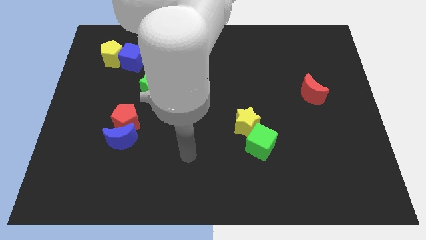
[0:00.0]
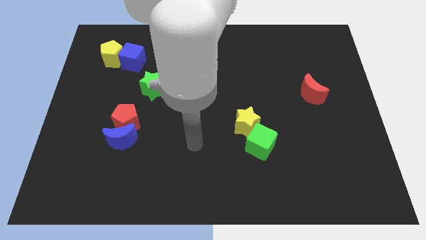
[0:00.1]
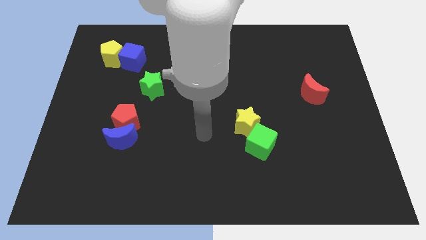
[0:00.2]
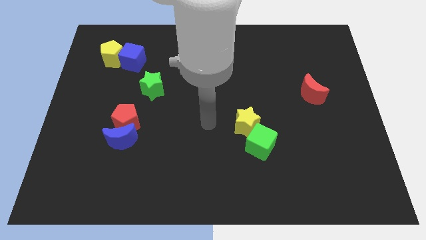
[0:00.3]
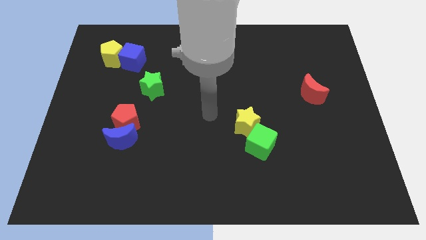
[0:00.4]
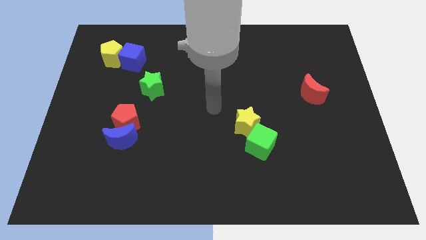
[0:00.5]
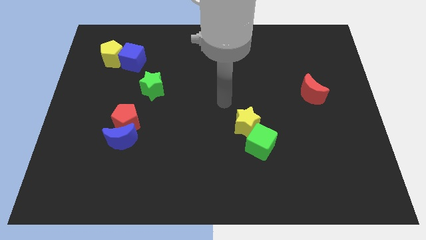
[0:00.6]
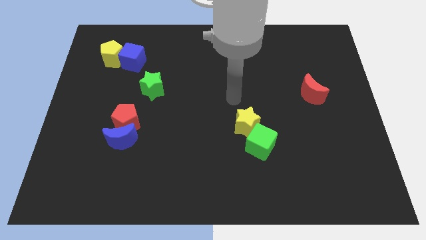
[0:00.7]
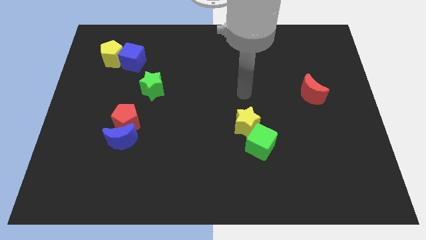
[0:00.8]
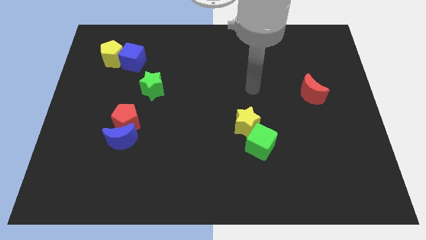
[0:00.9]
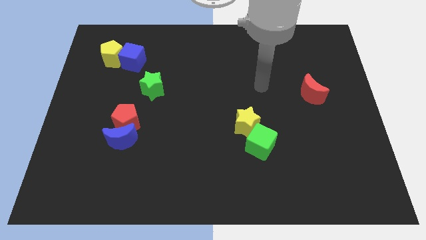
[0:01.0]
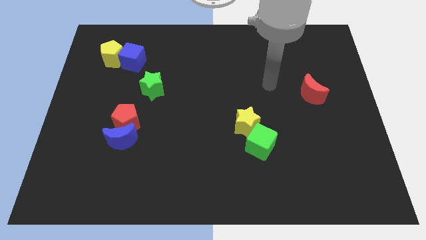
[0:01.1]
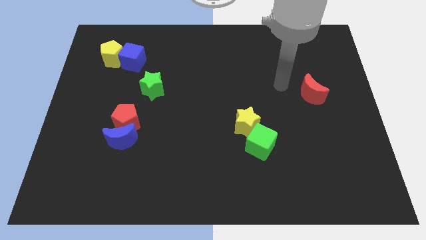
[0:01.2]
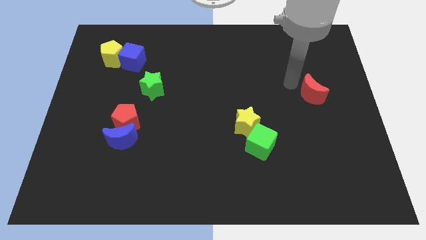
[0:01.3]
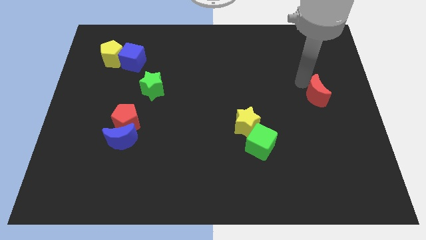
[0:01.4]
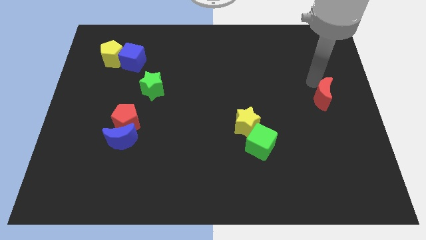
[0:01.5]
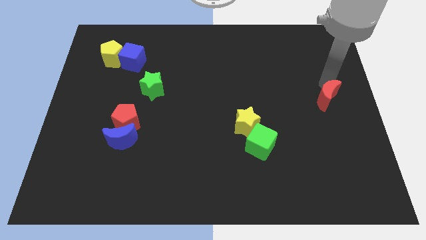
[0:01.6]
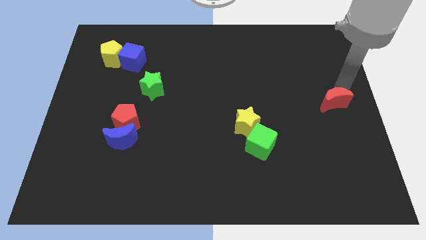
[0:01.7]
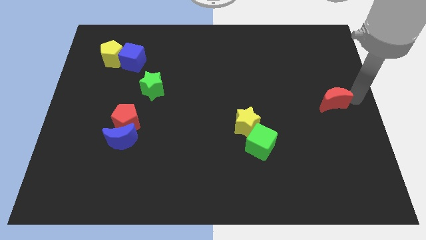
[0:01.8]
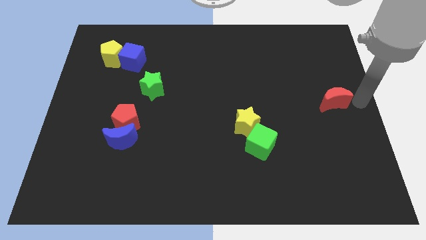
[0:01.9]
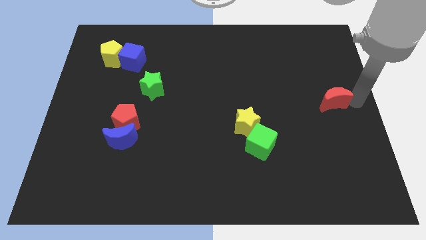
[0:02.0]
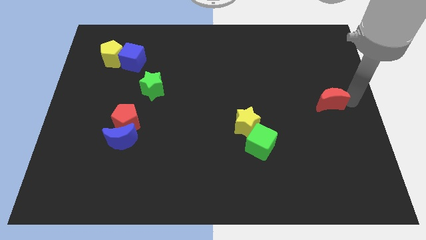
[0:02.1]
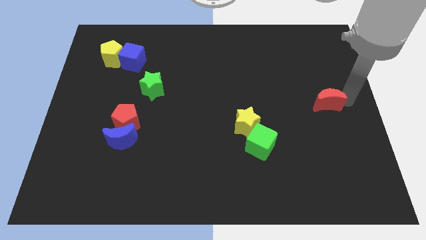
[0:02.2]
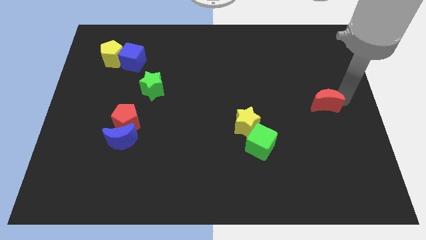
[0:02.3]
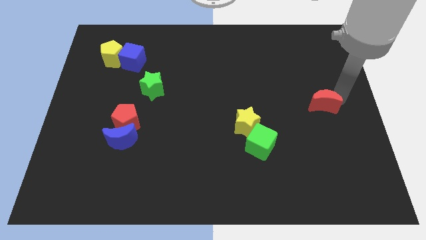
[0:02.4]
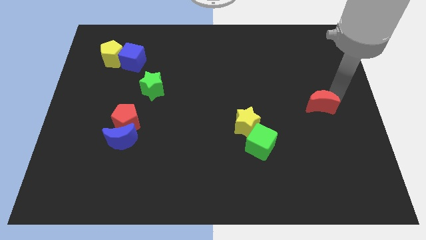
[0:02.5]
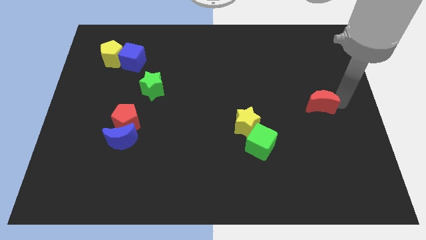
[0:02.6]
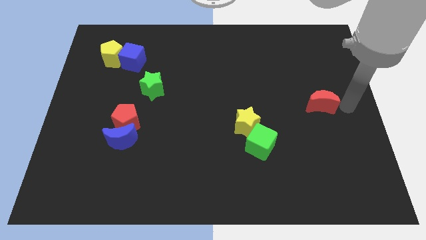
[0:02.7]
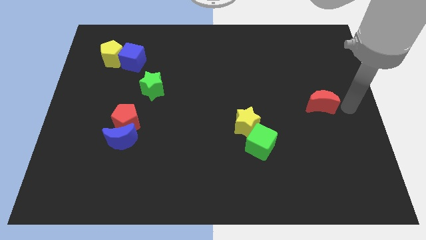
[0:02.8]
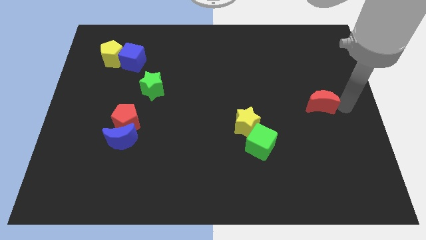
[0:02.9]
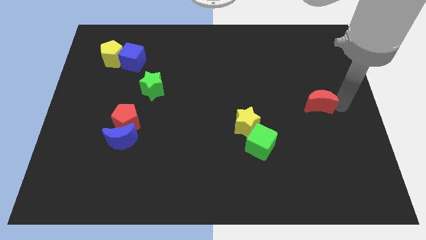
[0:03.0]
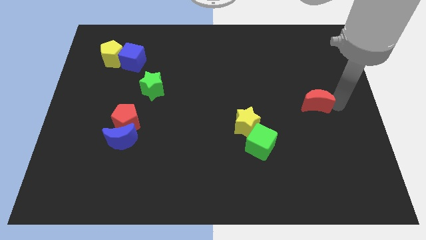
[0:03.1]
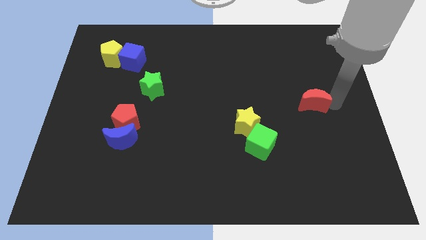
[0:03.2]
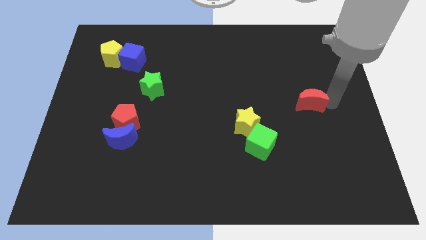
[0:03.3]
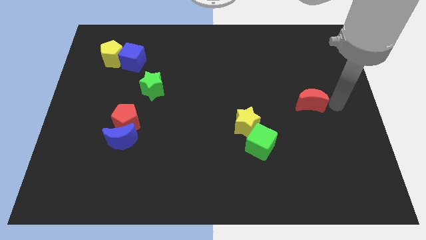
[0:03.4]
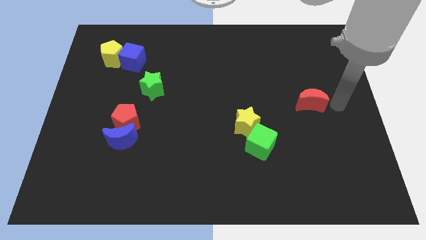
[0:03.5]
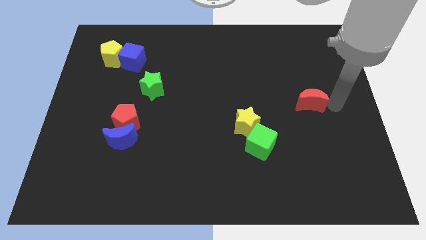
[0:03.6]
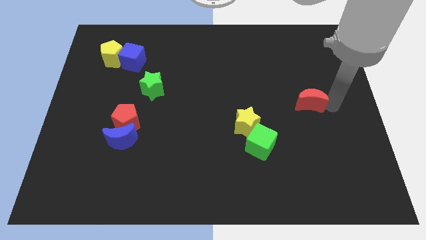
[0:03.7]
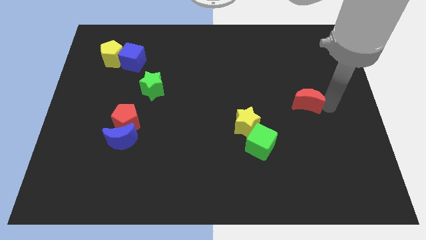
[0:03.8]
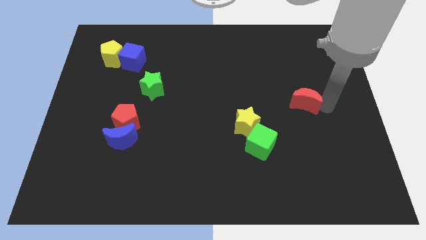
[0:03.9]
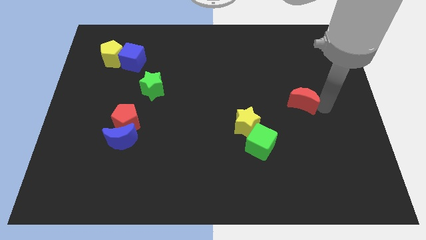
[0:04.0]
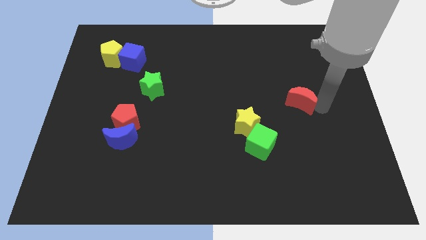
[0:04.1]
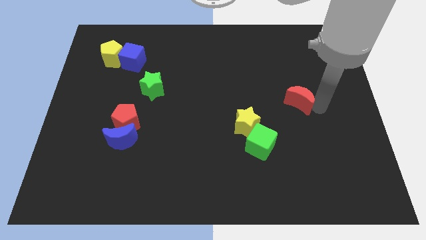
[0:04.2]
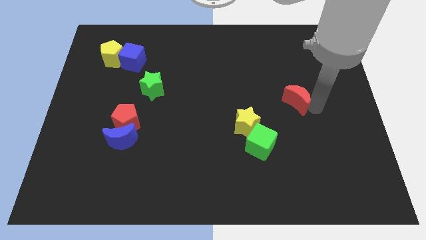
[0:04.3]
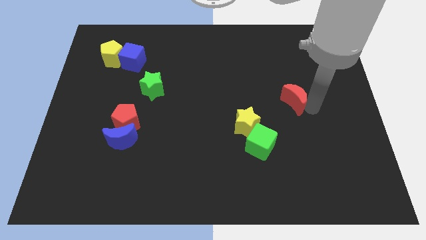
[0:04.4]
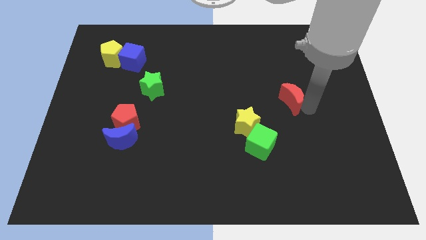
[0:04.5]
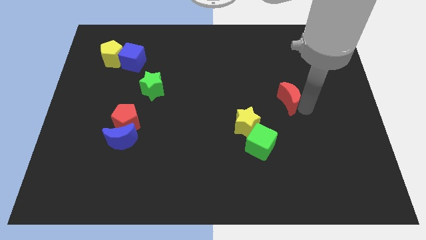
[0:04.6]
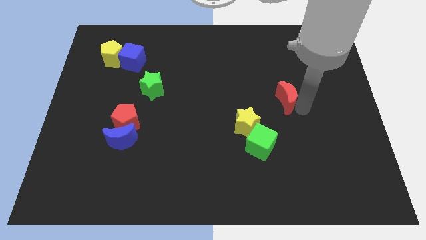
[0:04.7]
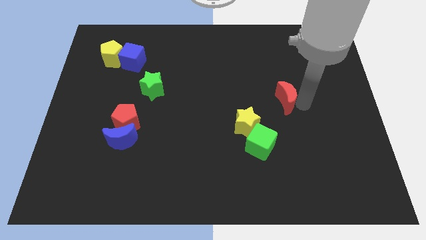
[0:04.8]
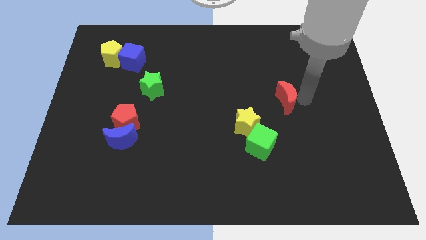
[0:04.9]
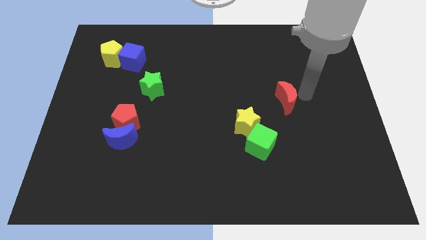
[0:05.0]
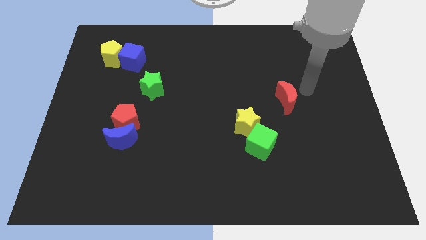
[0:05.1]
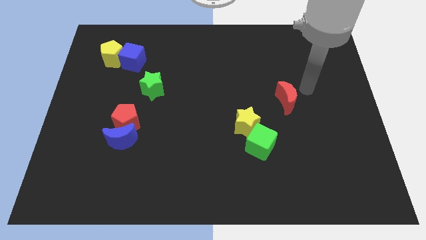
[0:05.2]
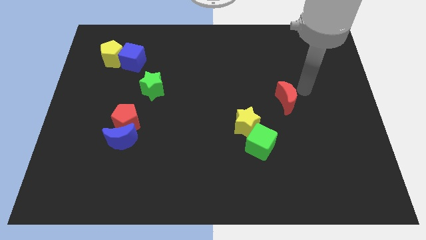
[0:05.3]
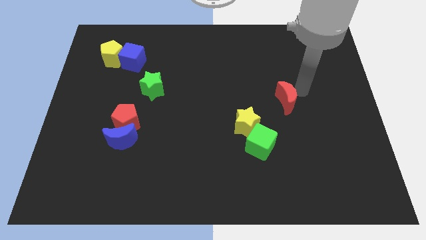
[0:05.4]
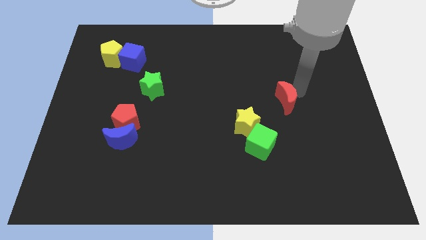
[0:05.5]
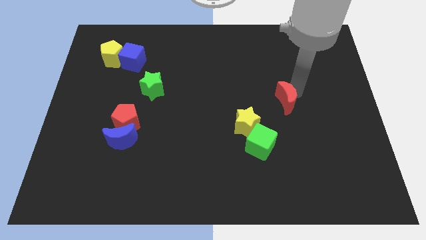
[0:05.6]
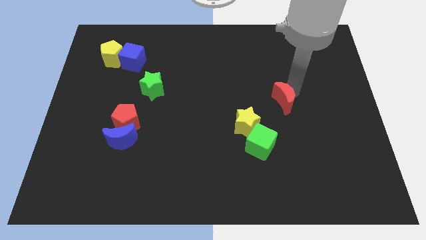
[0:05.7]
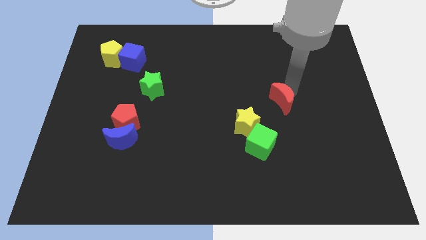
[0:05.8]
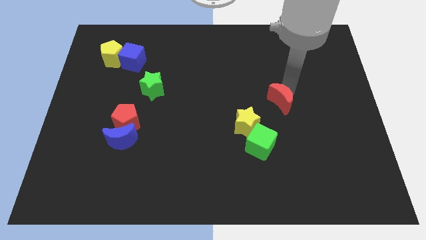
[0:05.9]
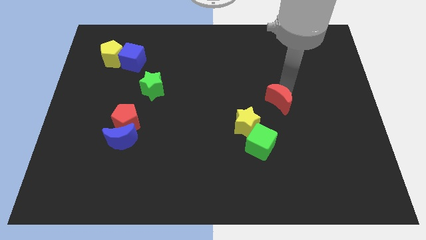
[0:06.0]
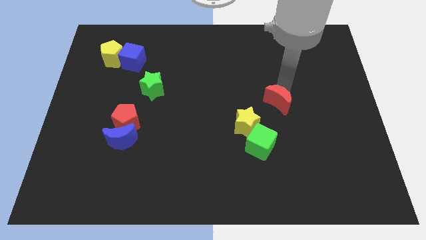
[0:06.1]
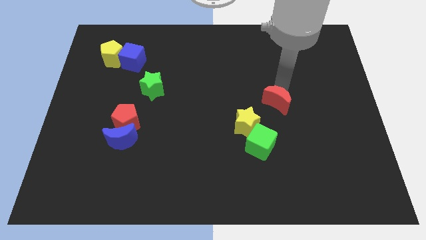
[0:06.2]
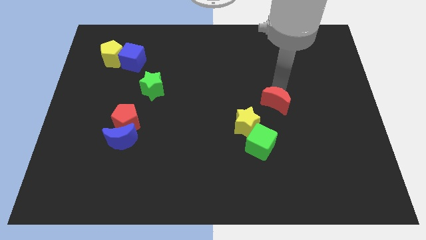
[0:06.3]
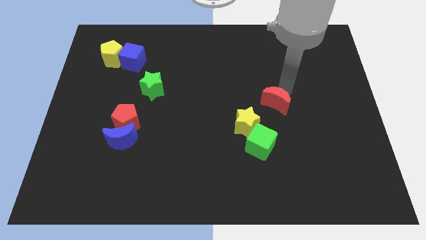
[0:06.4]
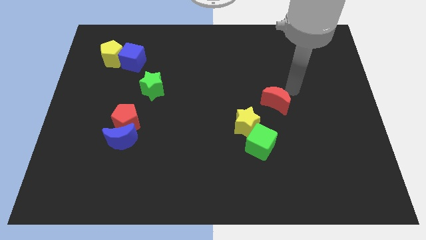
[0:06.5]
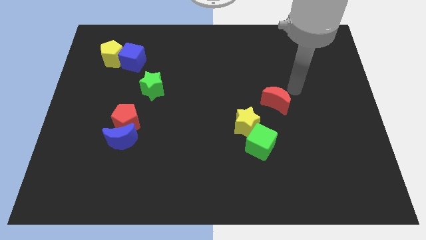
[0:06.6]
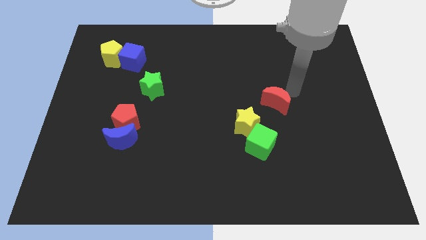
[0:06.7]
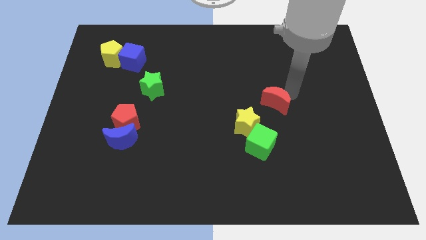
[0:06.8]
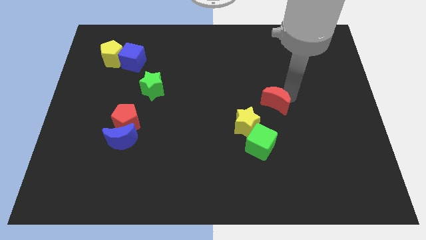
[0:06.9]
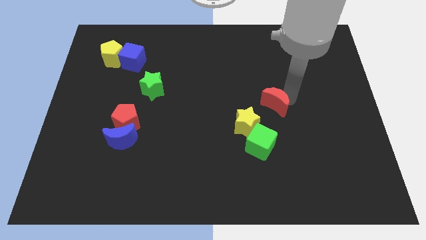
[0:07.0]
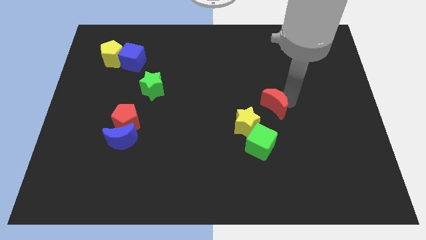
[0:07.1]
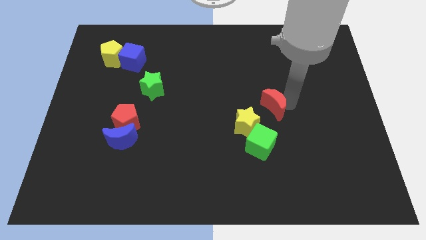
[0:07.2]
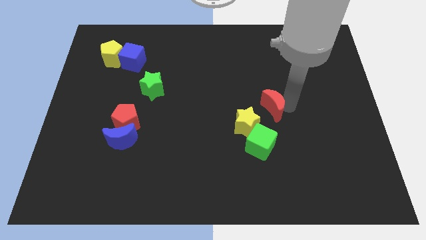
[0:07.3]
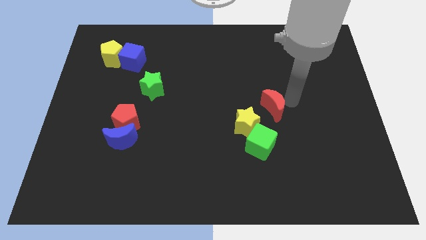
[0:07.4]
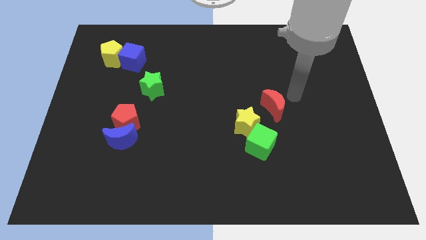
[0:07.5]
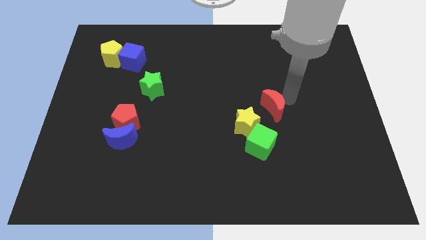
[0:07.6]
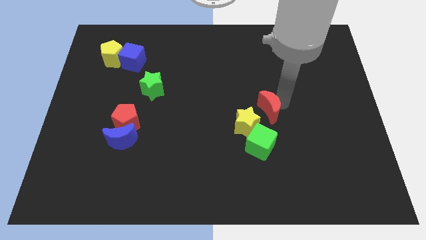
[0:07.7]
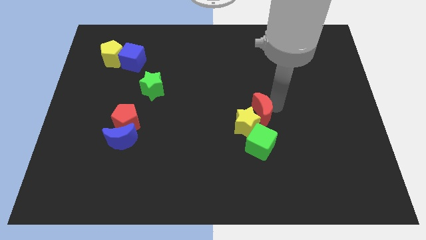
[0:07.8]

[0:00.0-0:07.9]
move the red moon towards the yellow star
